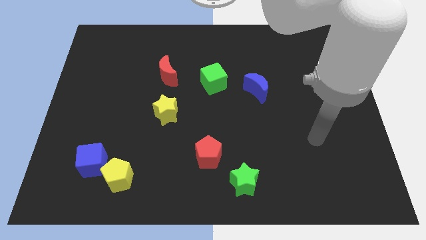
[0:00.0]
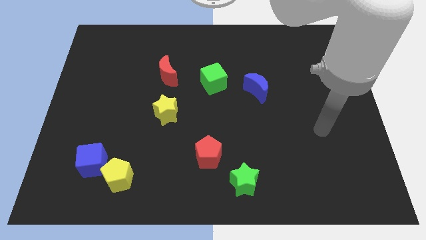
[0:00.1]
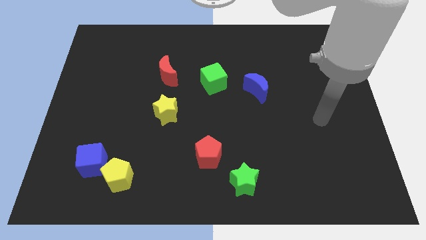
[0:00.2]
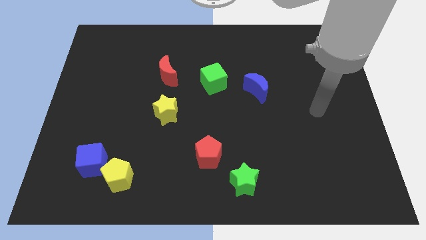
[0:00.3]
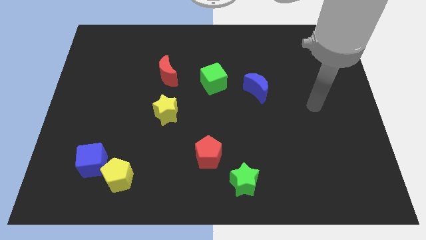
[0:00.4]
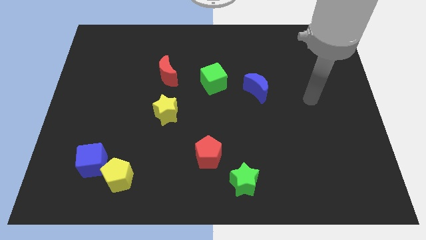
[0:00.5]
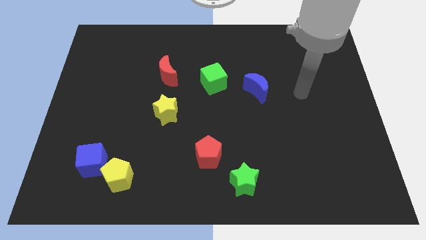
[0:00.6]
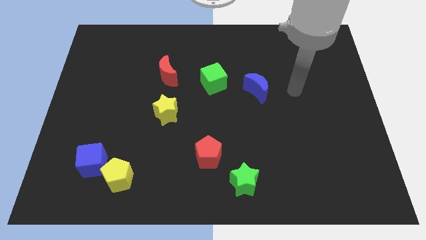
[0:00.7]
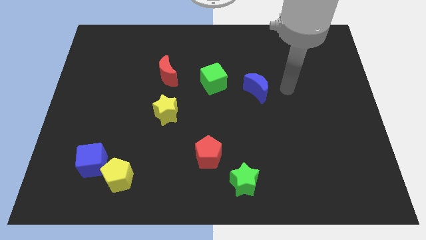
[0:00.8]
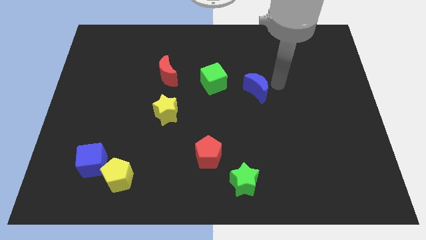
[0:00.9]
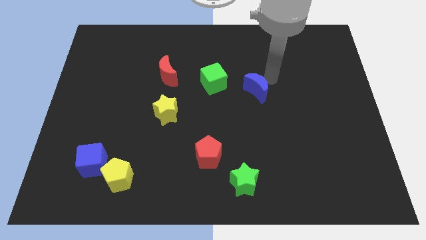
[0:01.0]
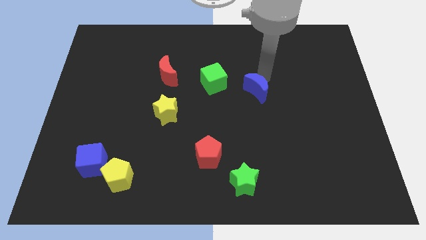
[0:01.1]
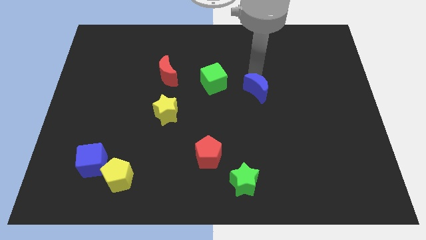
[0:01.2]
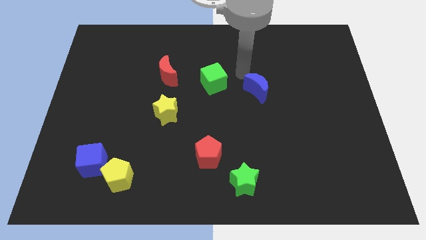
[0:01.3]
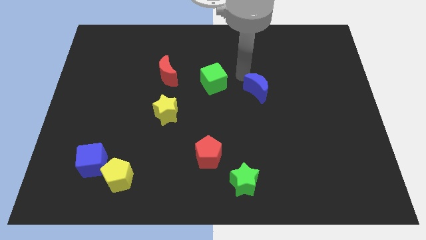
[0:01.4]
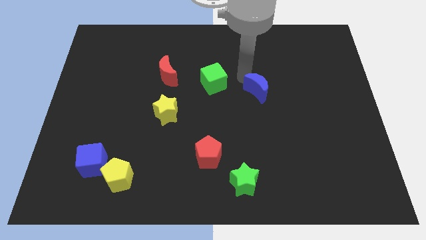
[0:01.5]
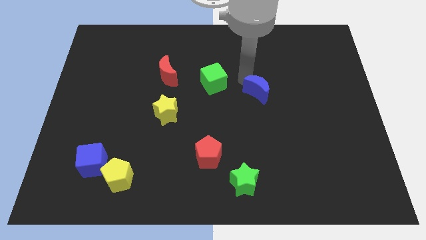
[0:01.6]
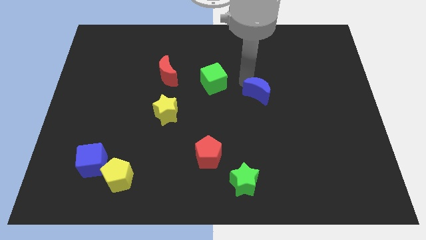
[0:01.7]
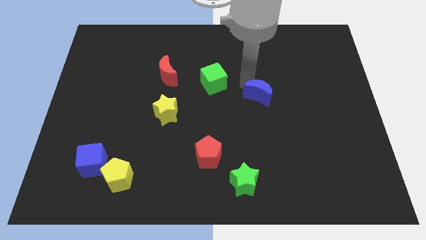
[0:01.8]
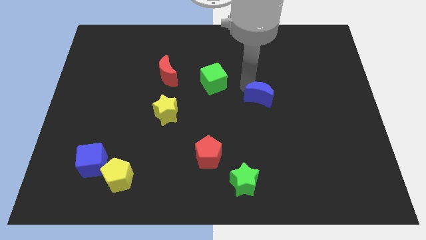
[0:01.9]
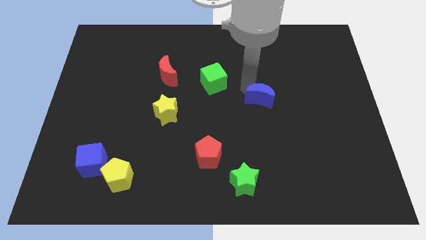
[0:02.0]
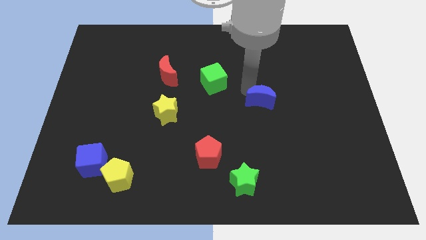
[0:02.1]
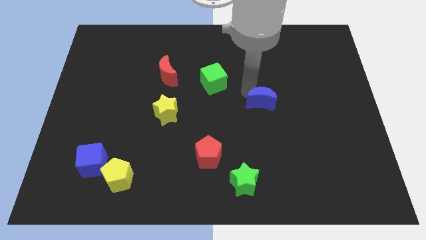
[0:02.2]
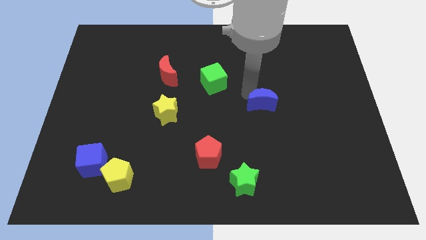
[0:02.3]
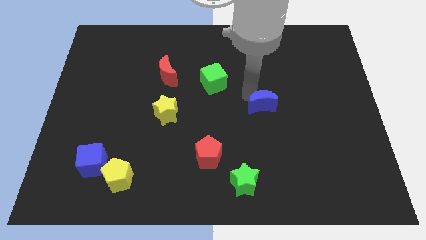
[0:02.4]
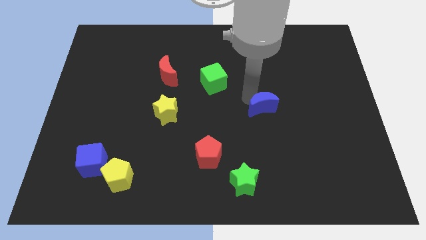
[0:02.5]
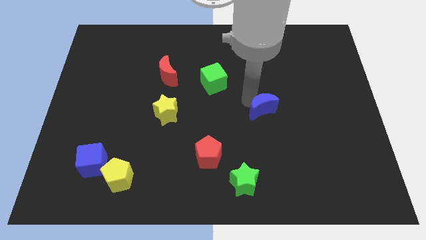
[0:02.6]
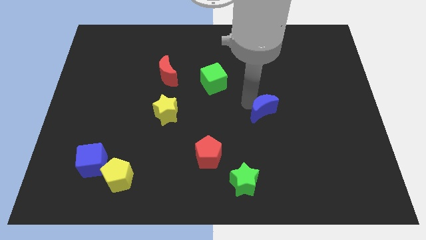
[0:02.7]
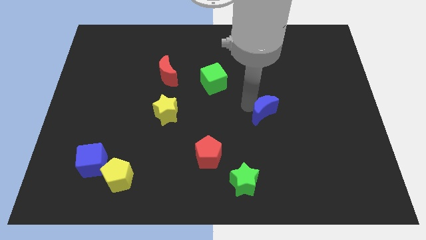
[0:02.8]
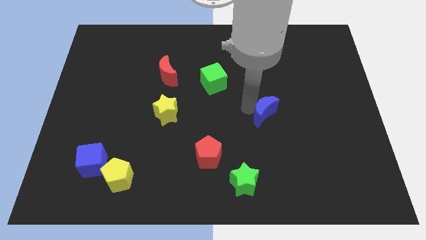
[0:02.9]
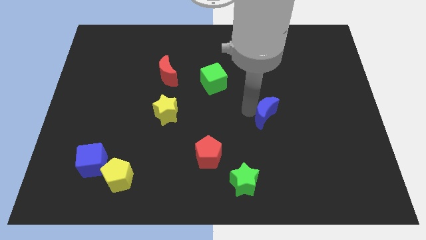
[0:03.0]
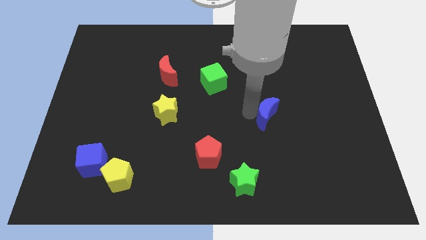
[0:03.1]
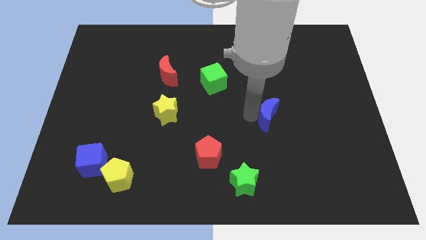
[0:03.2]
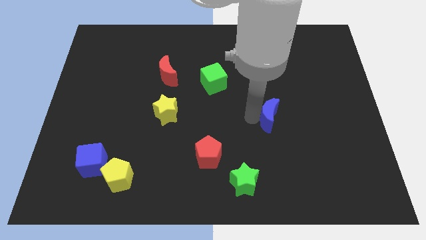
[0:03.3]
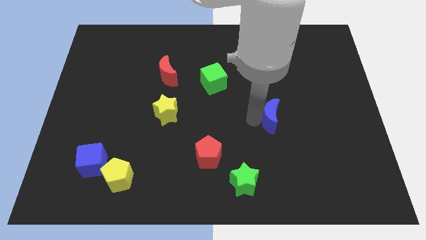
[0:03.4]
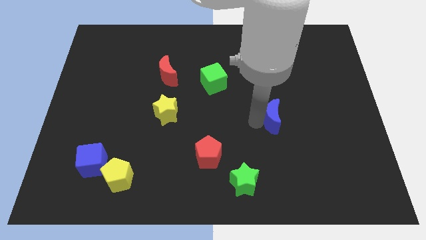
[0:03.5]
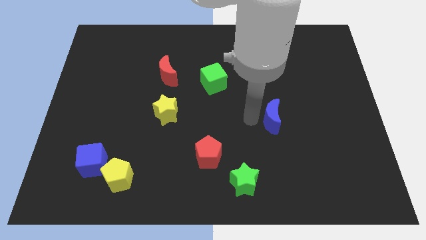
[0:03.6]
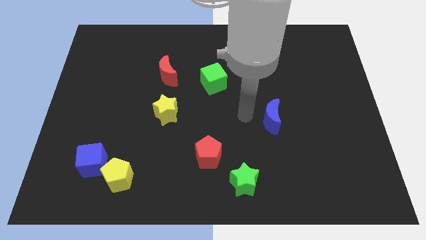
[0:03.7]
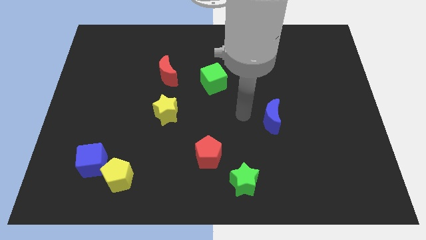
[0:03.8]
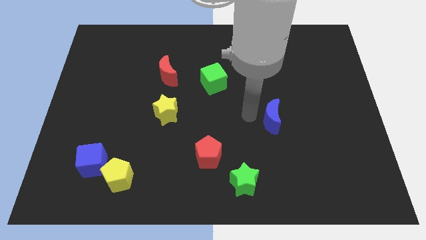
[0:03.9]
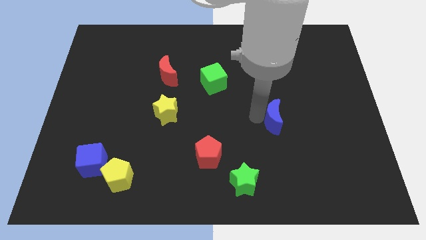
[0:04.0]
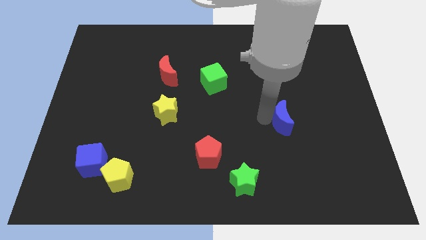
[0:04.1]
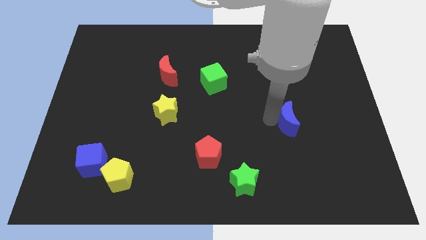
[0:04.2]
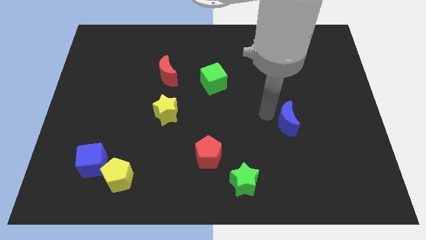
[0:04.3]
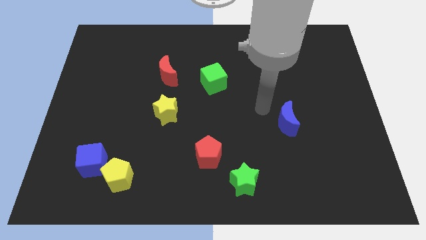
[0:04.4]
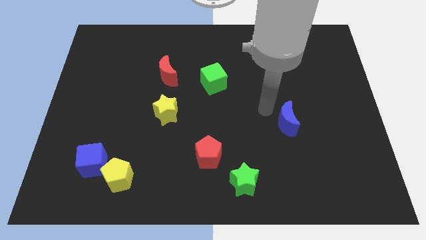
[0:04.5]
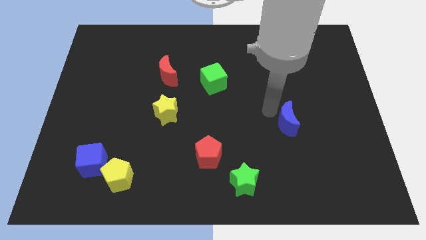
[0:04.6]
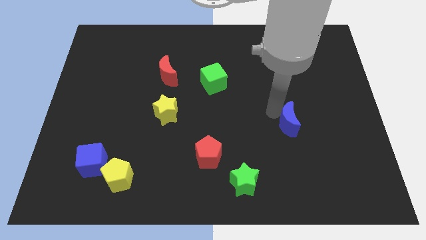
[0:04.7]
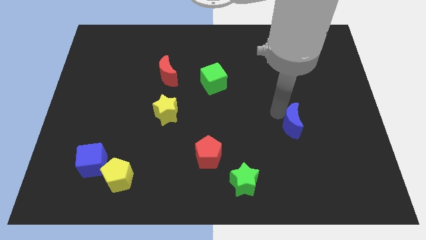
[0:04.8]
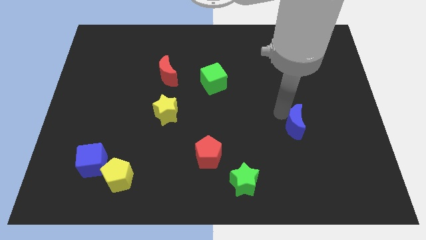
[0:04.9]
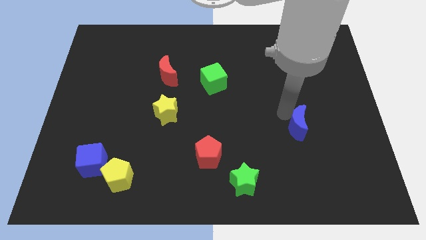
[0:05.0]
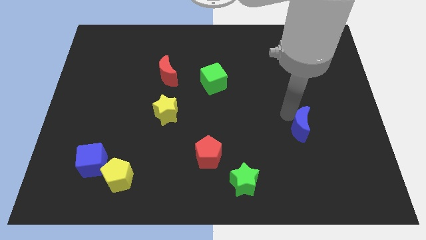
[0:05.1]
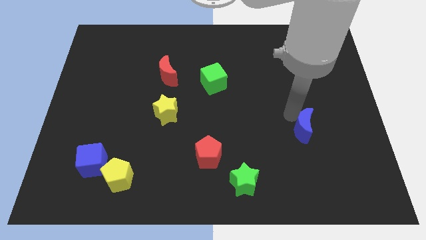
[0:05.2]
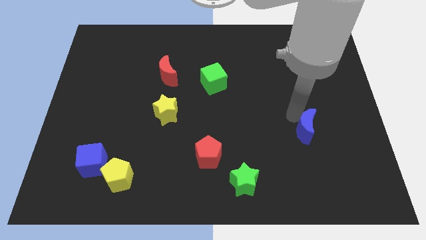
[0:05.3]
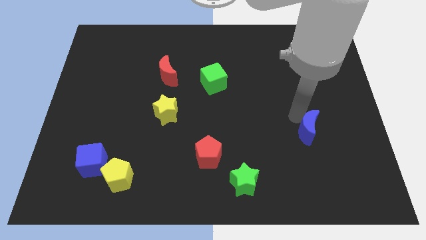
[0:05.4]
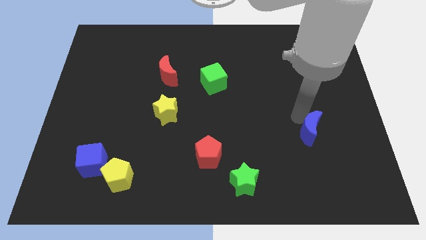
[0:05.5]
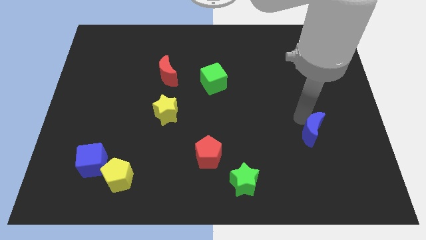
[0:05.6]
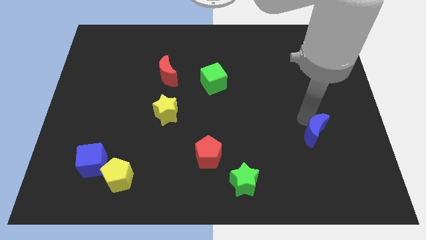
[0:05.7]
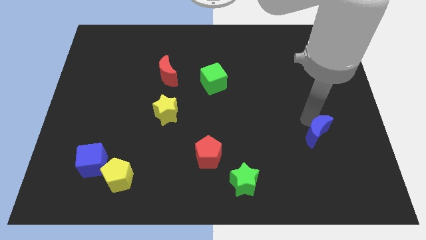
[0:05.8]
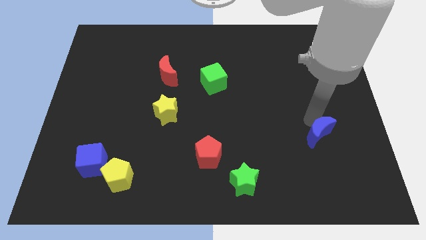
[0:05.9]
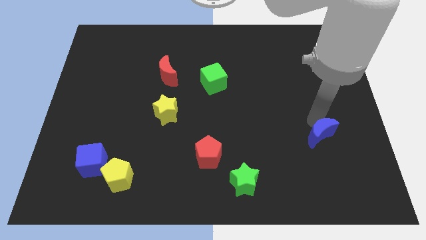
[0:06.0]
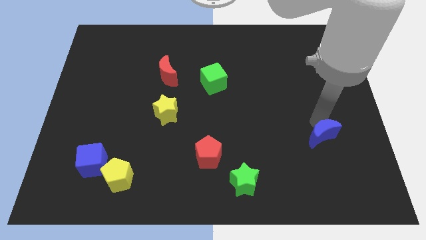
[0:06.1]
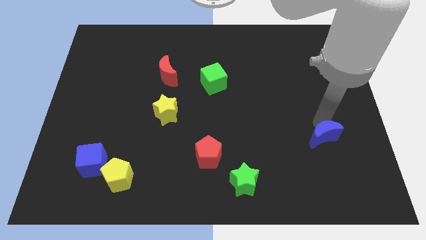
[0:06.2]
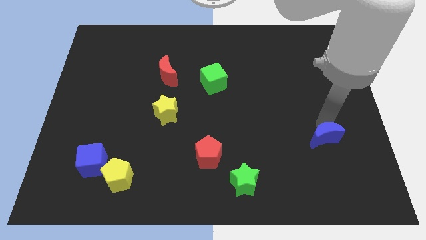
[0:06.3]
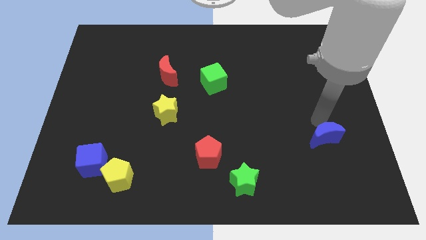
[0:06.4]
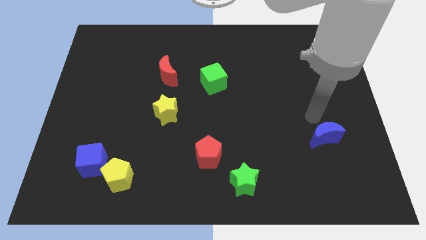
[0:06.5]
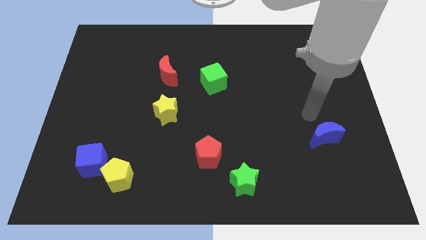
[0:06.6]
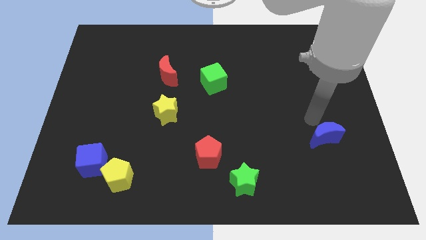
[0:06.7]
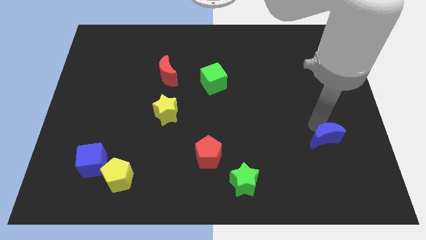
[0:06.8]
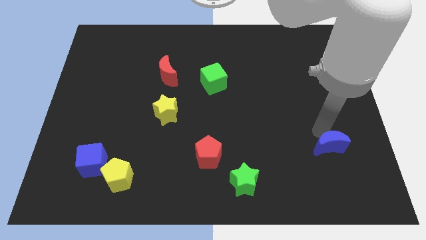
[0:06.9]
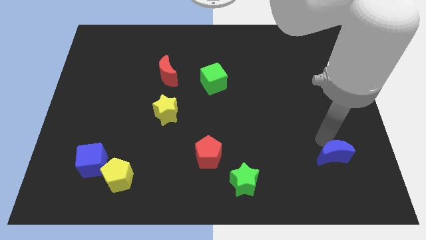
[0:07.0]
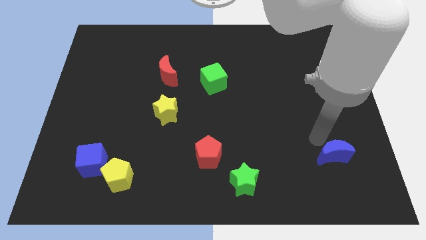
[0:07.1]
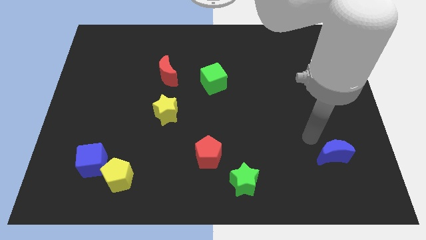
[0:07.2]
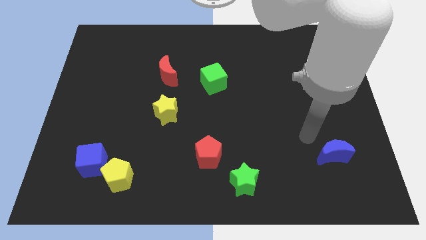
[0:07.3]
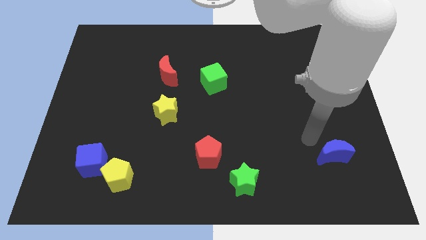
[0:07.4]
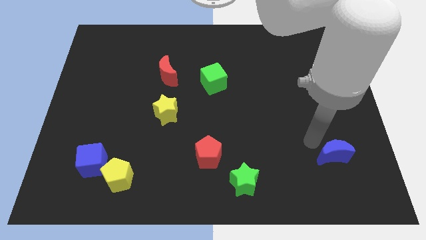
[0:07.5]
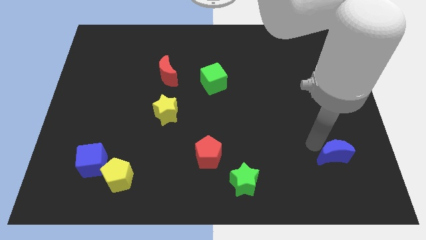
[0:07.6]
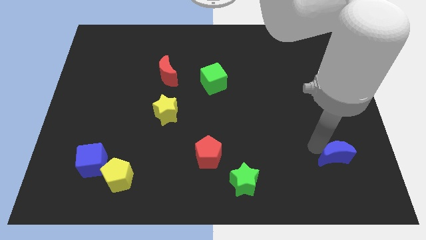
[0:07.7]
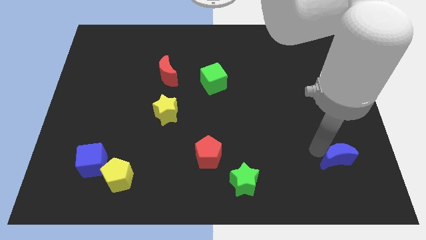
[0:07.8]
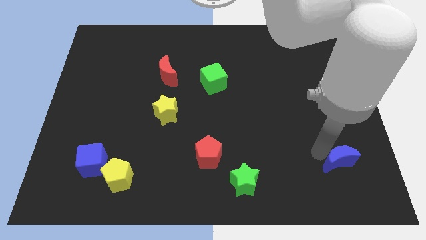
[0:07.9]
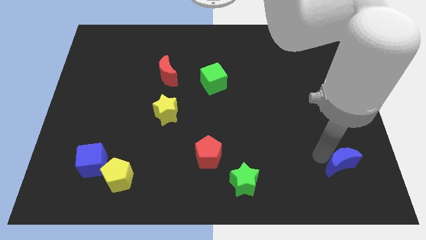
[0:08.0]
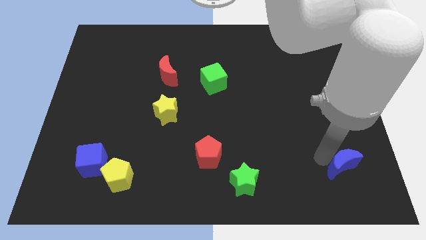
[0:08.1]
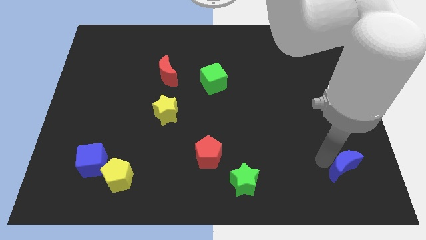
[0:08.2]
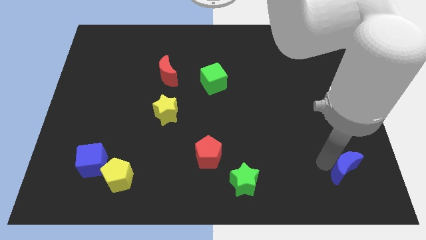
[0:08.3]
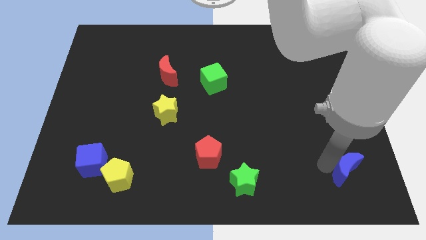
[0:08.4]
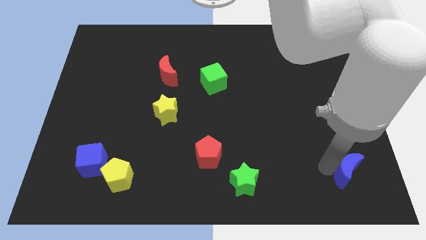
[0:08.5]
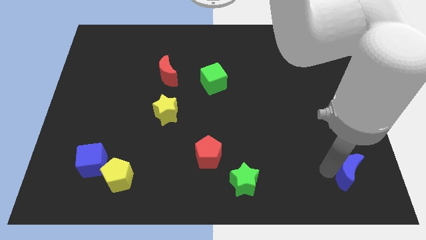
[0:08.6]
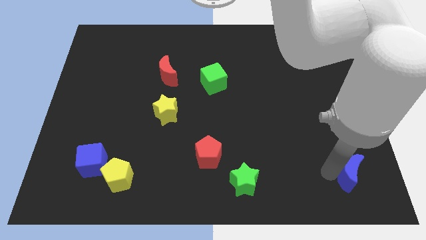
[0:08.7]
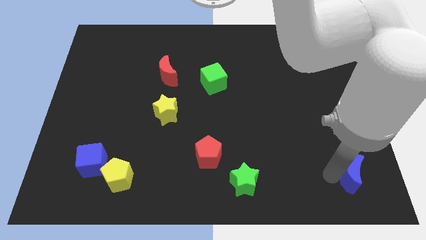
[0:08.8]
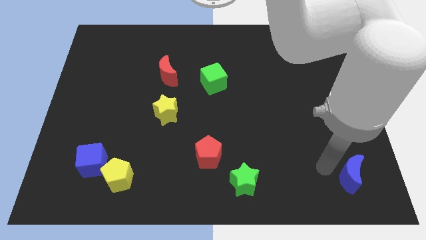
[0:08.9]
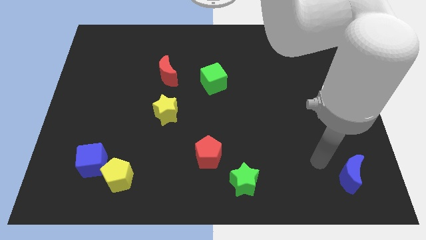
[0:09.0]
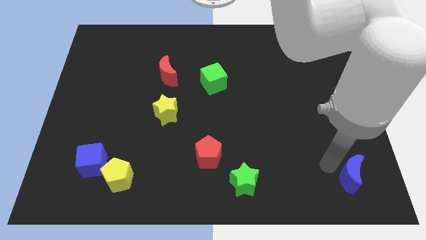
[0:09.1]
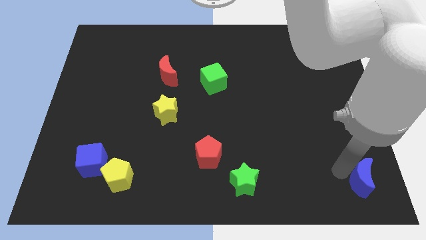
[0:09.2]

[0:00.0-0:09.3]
move the blue moon to the bottom right of the board
